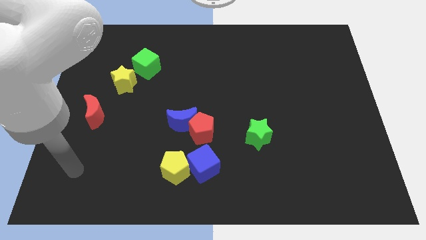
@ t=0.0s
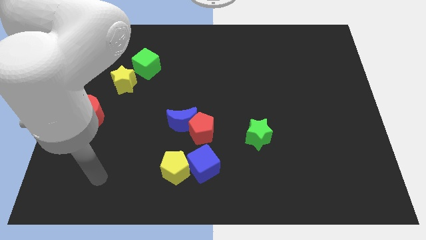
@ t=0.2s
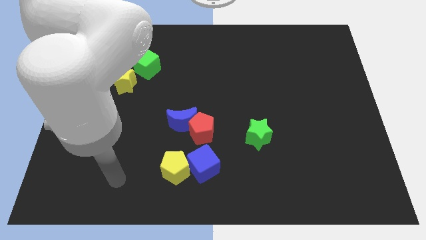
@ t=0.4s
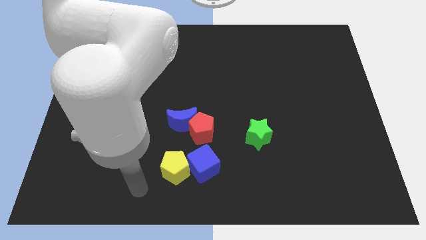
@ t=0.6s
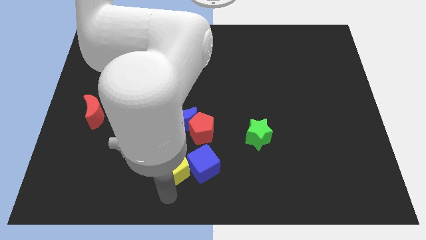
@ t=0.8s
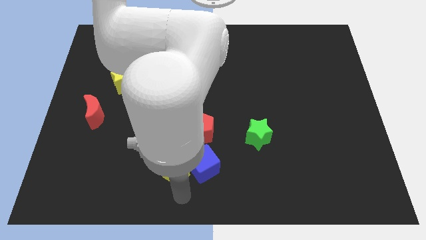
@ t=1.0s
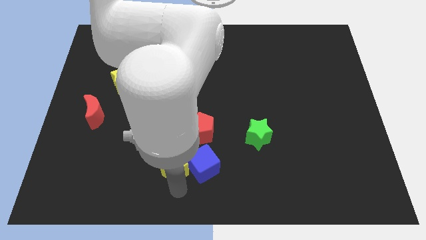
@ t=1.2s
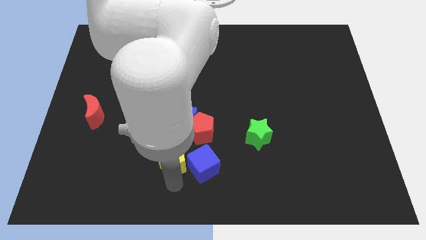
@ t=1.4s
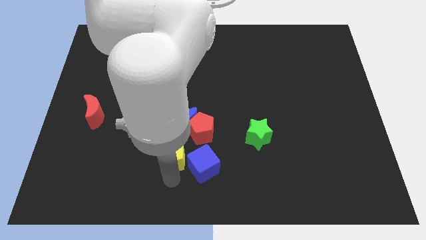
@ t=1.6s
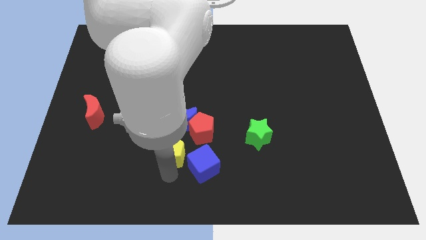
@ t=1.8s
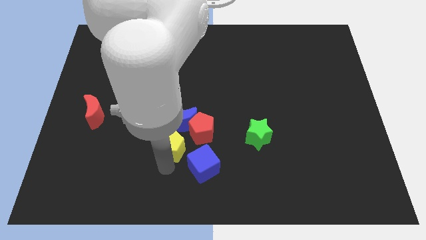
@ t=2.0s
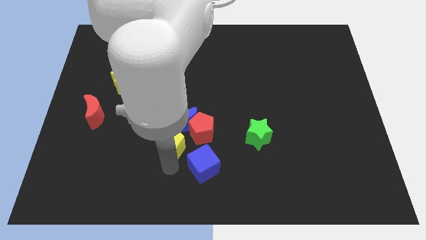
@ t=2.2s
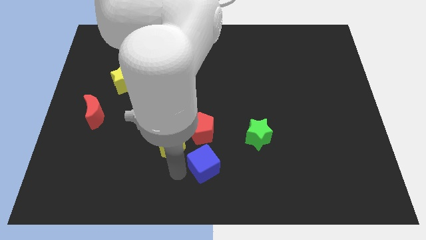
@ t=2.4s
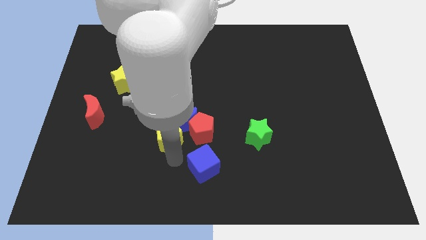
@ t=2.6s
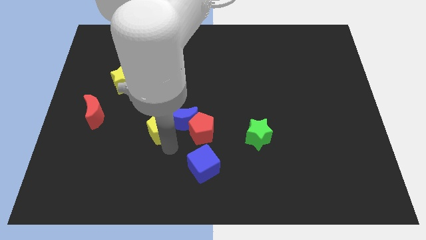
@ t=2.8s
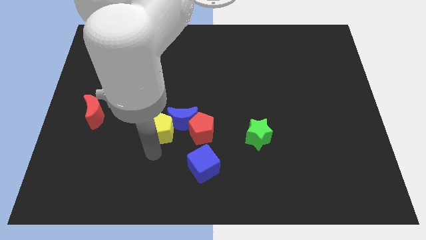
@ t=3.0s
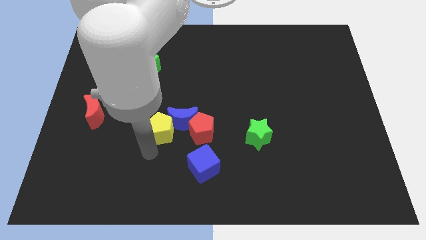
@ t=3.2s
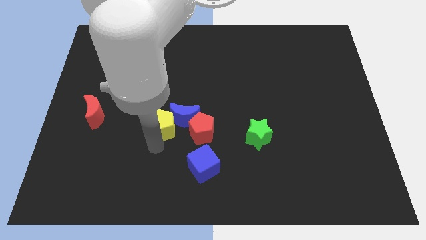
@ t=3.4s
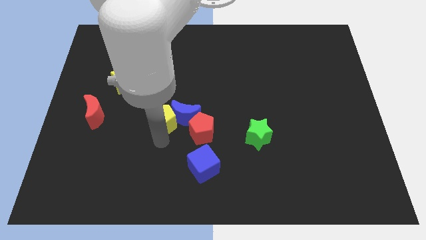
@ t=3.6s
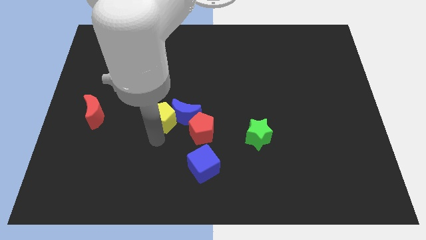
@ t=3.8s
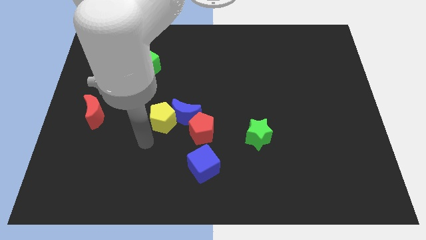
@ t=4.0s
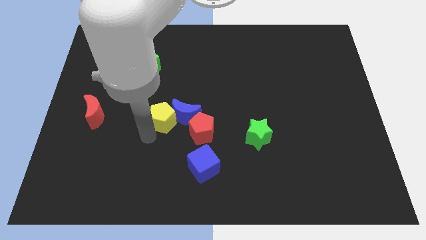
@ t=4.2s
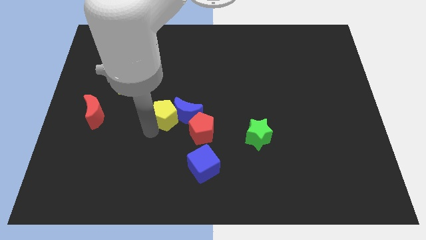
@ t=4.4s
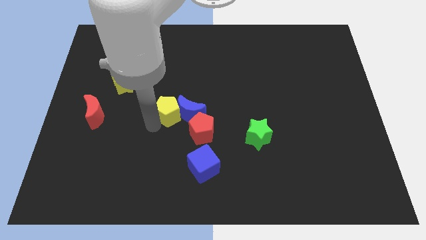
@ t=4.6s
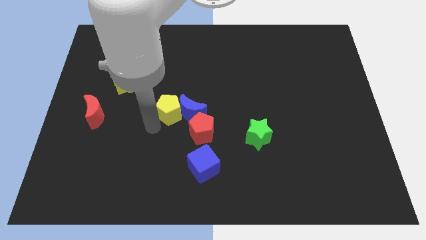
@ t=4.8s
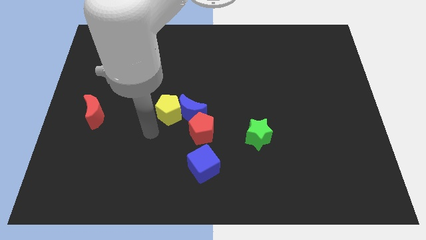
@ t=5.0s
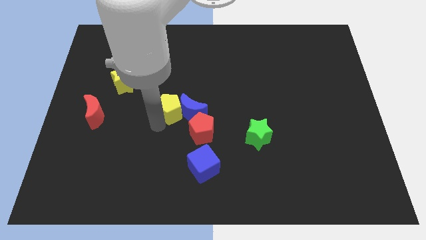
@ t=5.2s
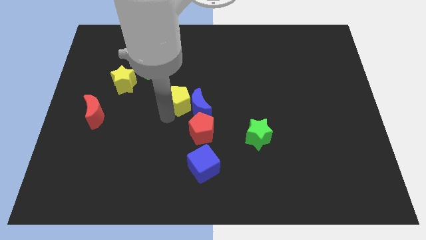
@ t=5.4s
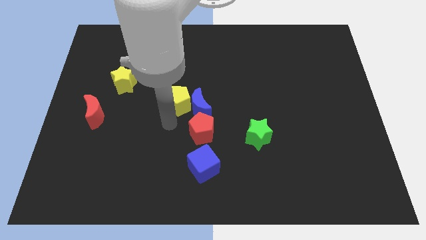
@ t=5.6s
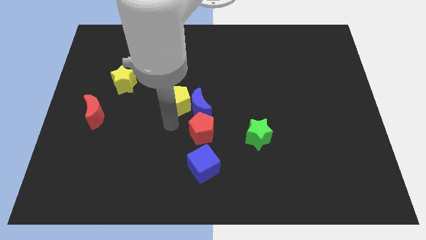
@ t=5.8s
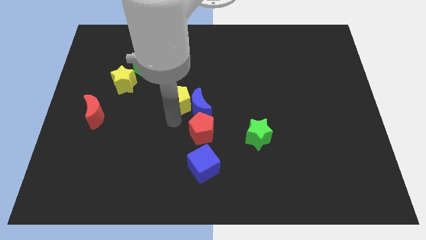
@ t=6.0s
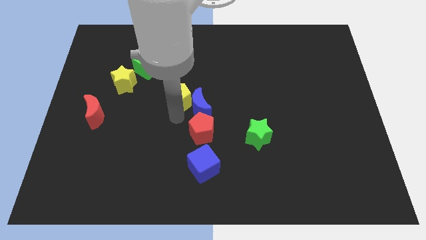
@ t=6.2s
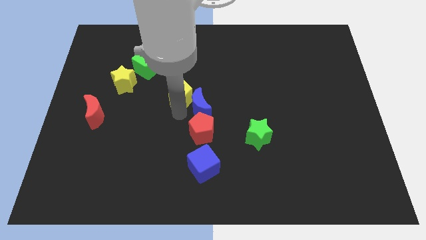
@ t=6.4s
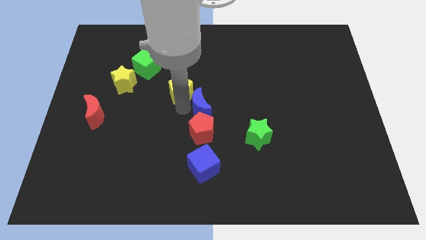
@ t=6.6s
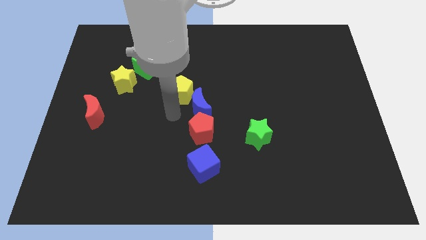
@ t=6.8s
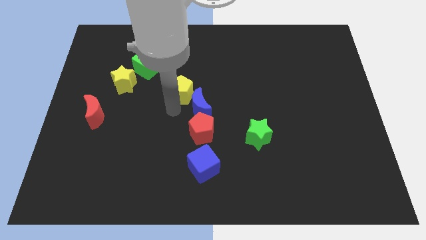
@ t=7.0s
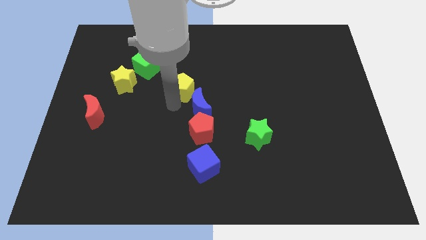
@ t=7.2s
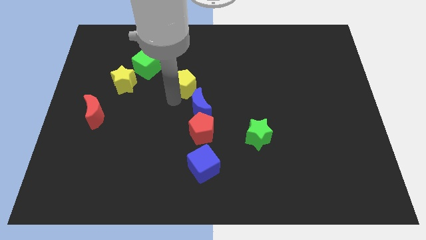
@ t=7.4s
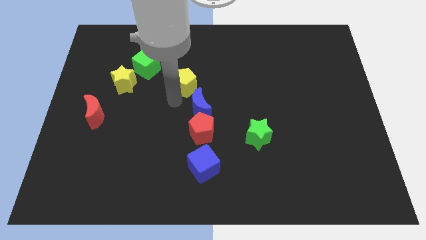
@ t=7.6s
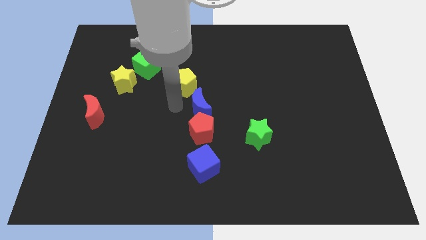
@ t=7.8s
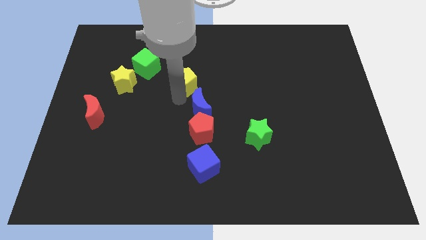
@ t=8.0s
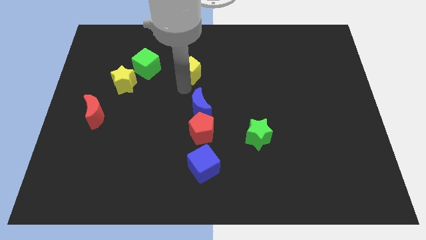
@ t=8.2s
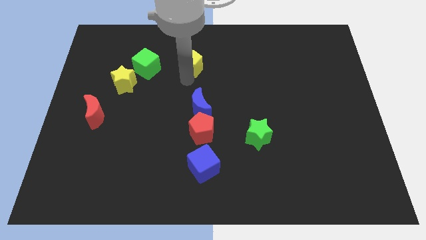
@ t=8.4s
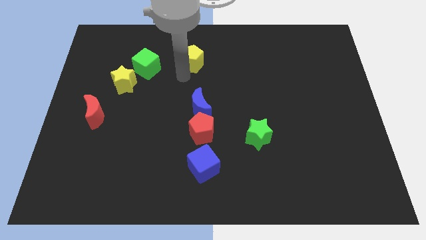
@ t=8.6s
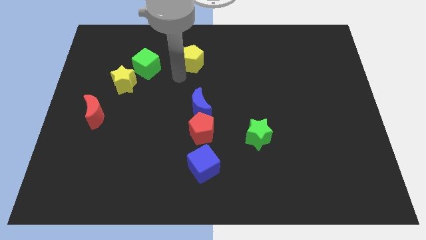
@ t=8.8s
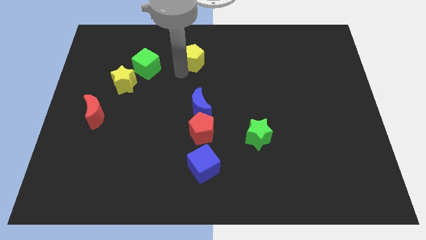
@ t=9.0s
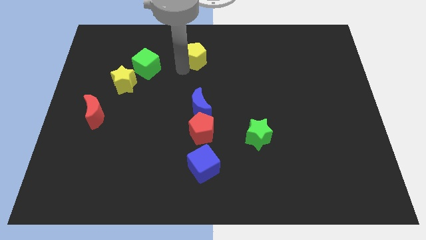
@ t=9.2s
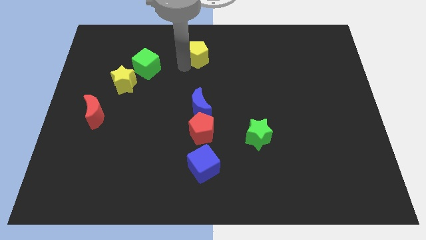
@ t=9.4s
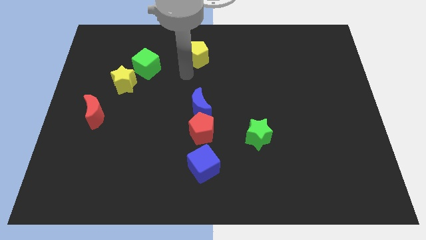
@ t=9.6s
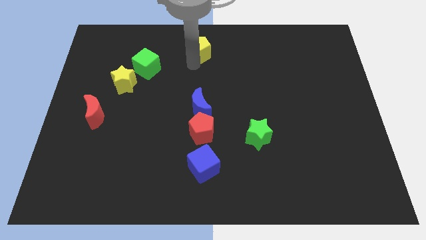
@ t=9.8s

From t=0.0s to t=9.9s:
put the yellow pentagon to the towards your base

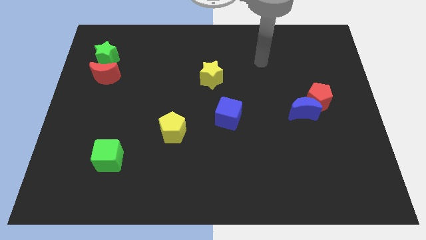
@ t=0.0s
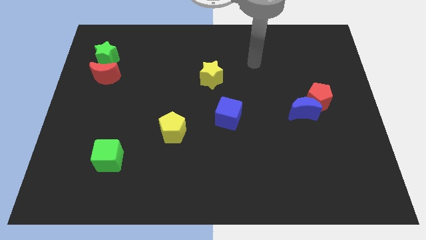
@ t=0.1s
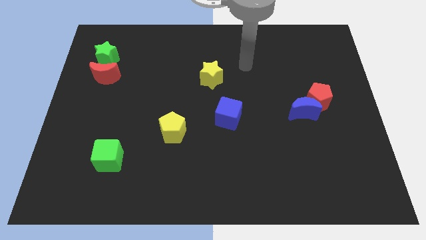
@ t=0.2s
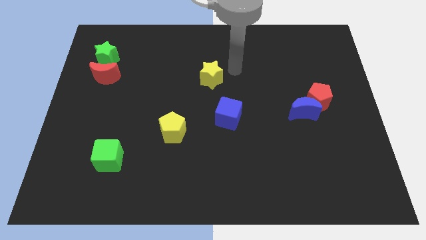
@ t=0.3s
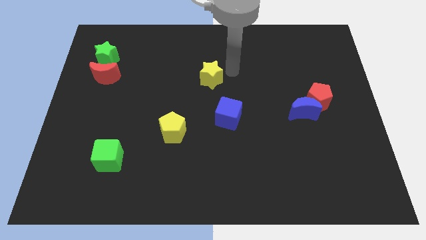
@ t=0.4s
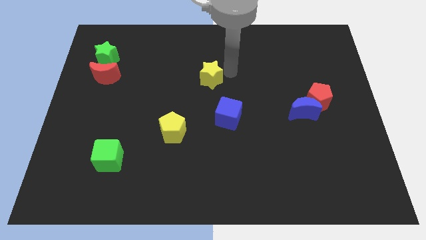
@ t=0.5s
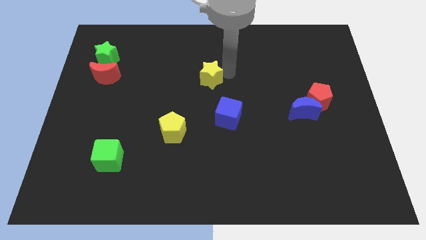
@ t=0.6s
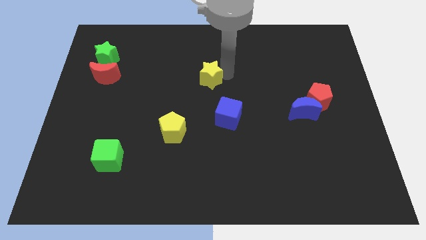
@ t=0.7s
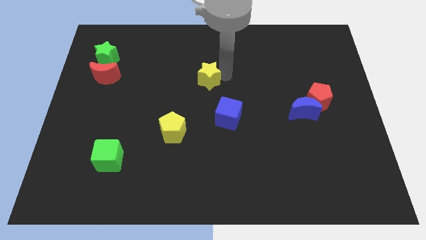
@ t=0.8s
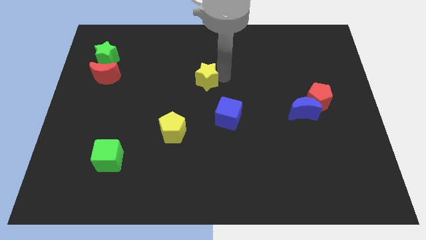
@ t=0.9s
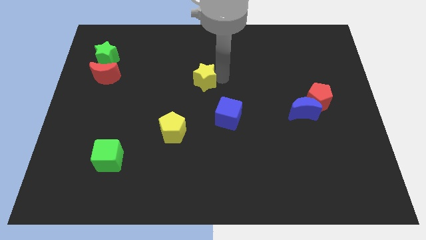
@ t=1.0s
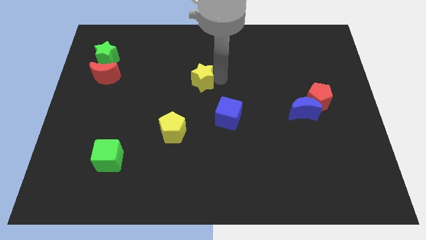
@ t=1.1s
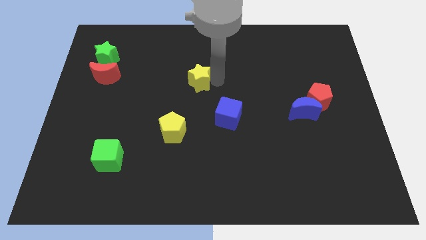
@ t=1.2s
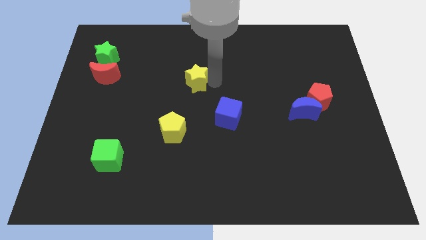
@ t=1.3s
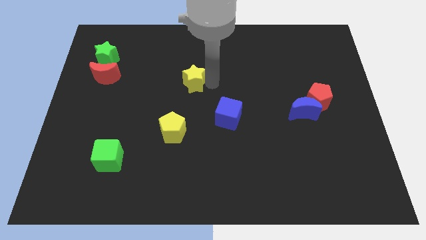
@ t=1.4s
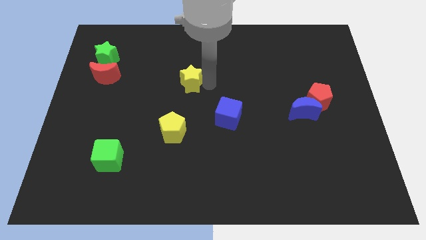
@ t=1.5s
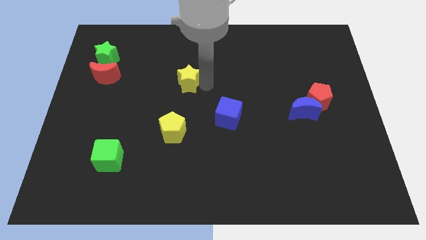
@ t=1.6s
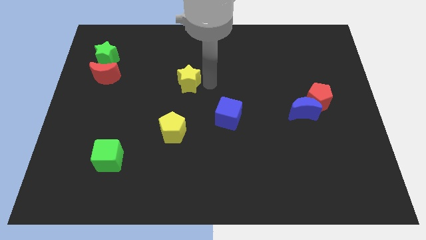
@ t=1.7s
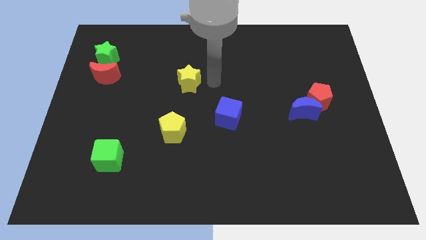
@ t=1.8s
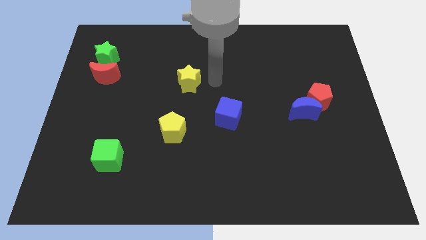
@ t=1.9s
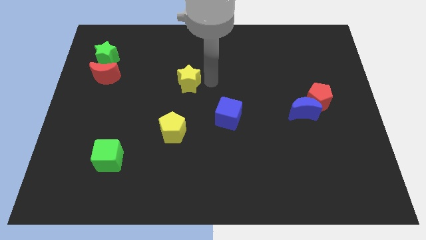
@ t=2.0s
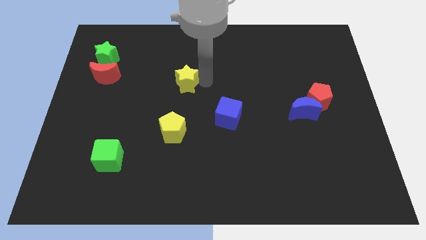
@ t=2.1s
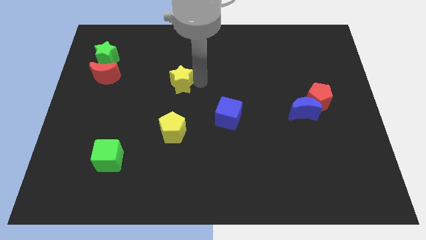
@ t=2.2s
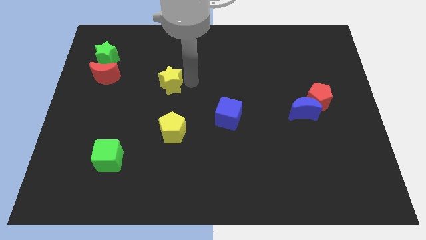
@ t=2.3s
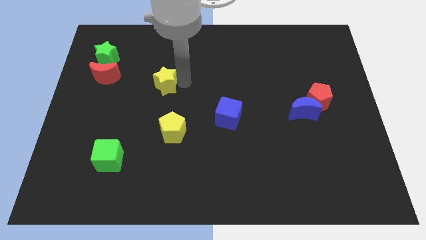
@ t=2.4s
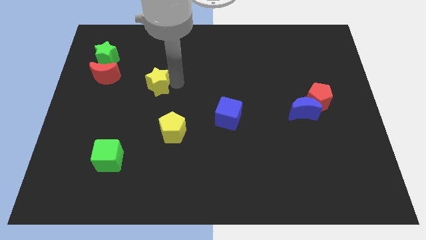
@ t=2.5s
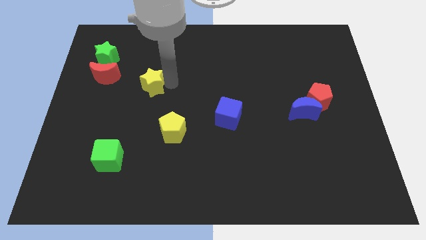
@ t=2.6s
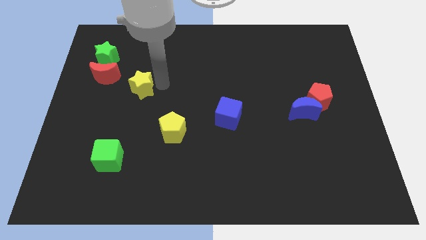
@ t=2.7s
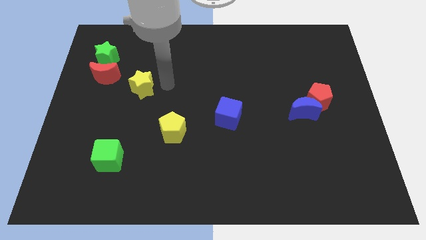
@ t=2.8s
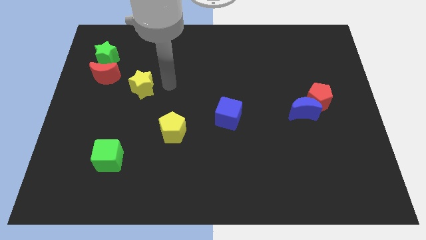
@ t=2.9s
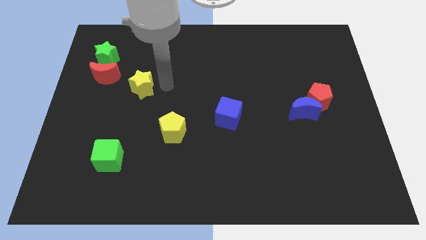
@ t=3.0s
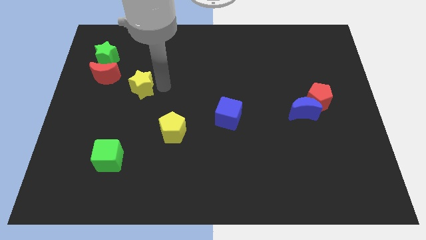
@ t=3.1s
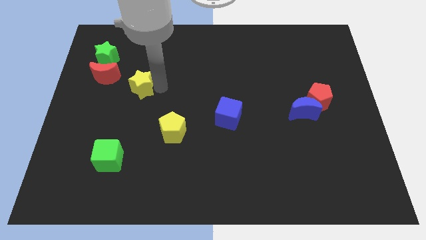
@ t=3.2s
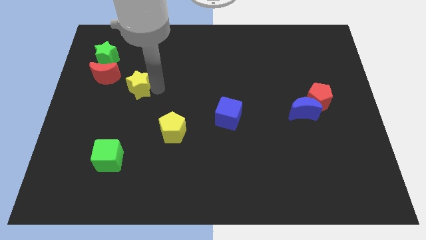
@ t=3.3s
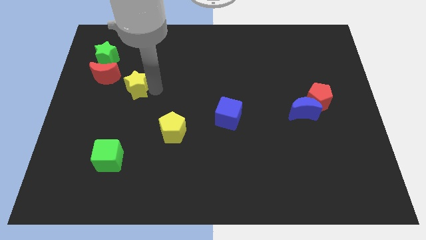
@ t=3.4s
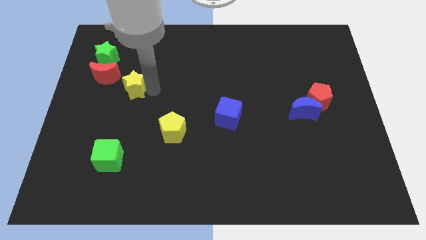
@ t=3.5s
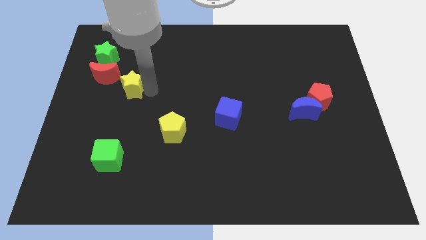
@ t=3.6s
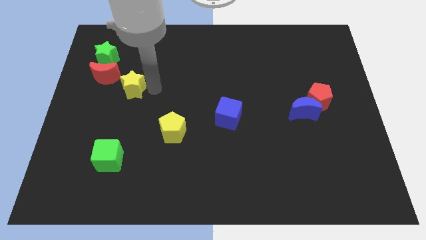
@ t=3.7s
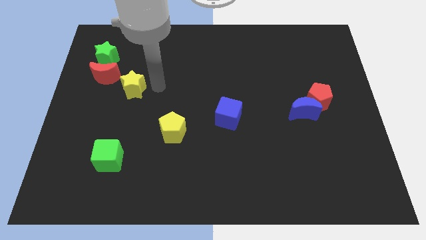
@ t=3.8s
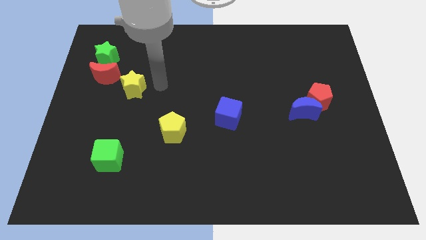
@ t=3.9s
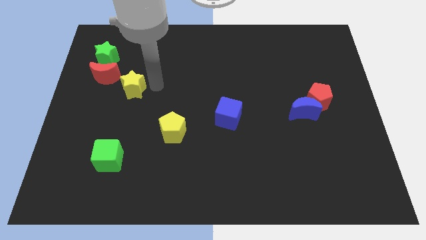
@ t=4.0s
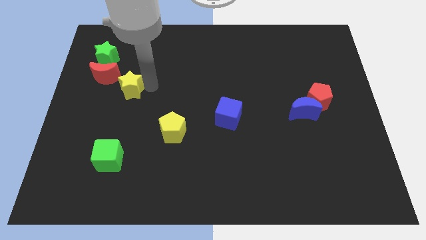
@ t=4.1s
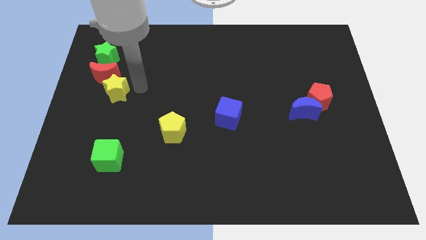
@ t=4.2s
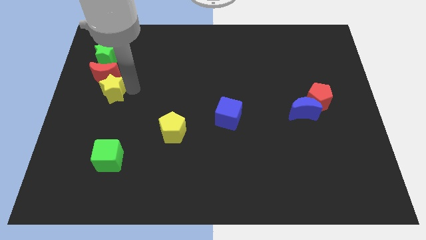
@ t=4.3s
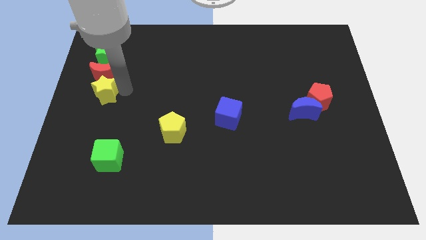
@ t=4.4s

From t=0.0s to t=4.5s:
slide the yellow star to the center left
